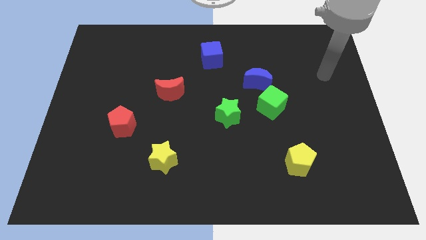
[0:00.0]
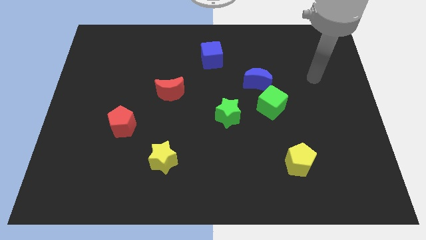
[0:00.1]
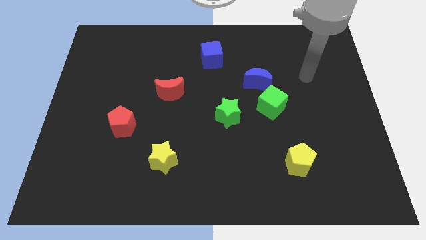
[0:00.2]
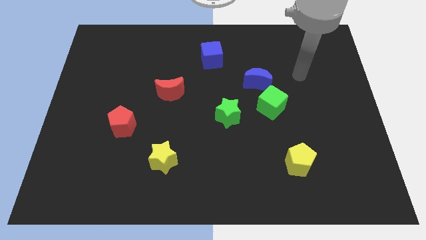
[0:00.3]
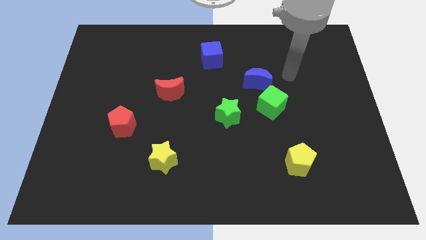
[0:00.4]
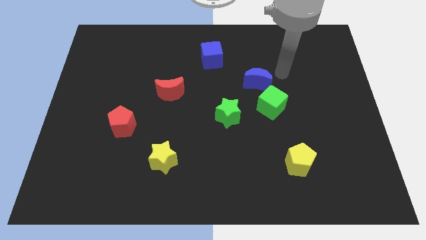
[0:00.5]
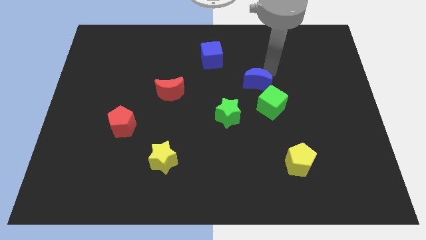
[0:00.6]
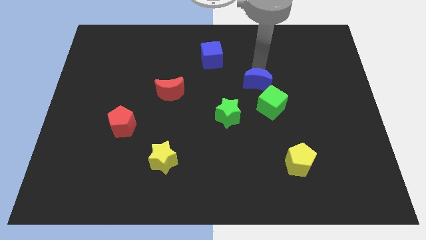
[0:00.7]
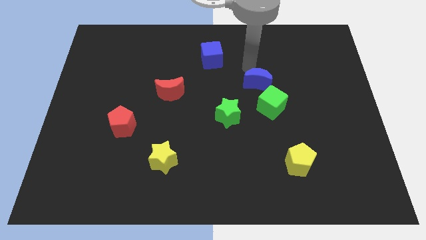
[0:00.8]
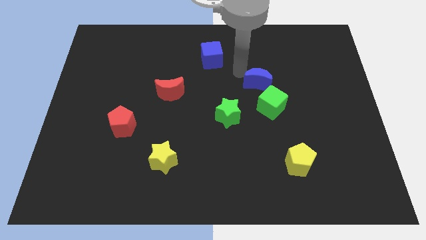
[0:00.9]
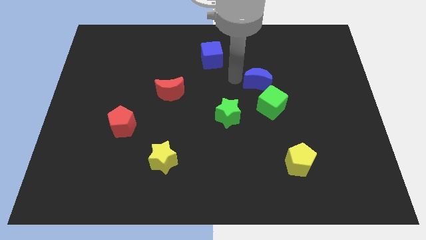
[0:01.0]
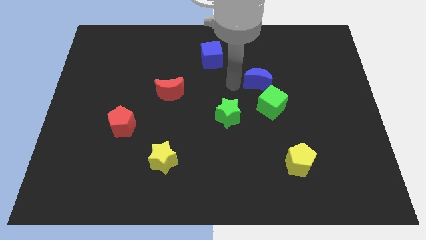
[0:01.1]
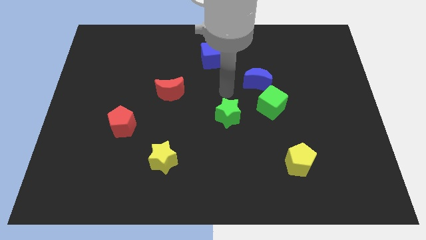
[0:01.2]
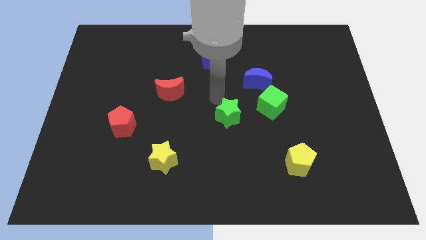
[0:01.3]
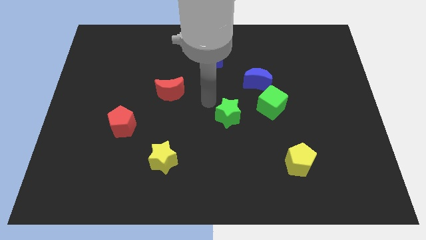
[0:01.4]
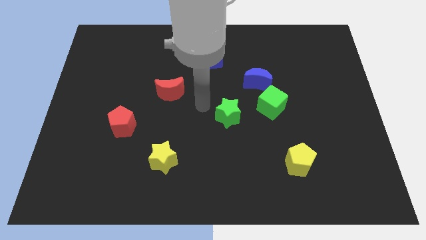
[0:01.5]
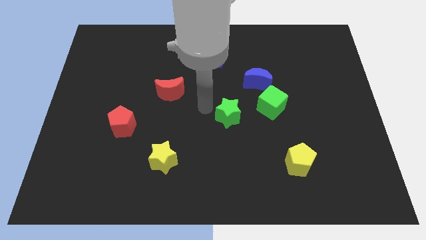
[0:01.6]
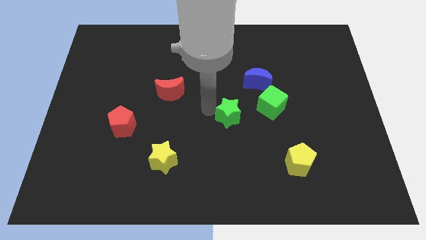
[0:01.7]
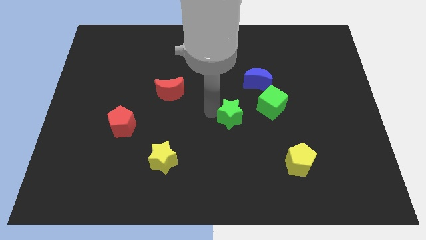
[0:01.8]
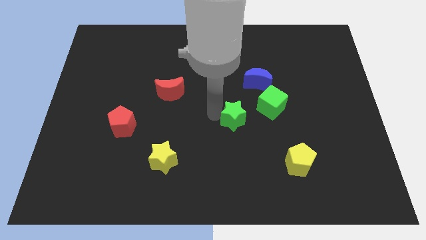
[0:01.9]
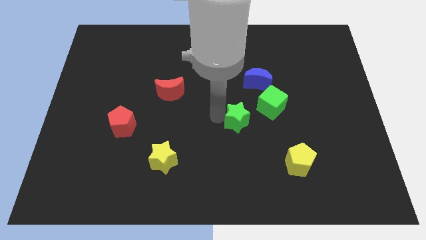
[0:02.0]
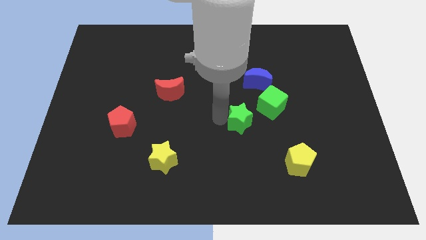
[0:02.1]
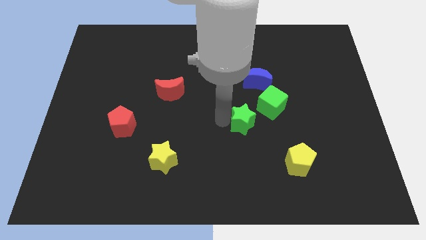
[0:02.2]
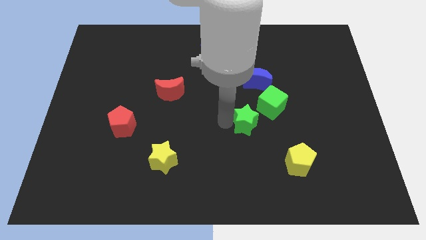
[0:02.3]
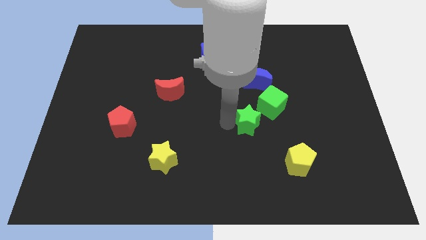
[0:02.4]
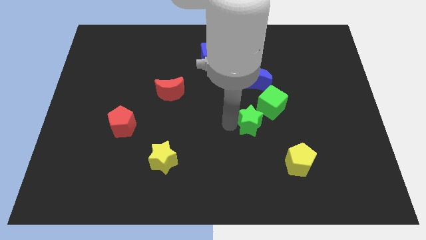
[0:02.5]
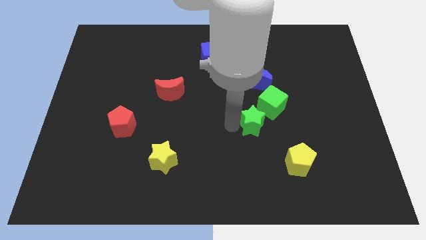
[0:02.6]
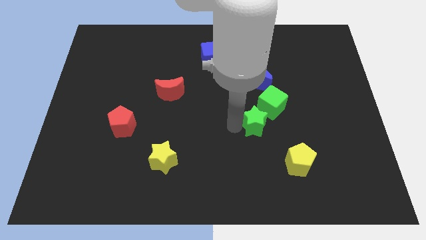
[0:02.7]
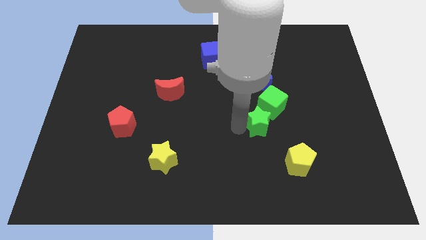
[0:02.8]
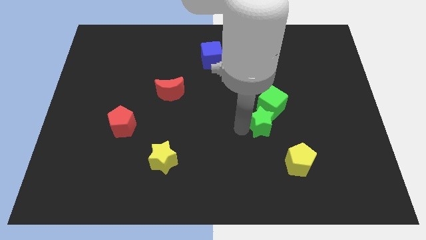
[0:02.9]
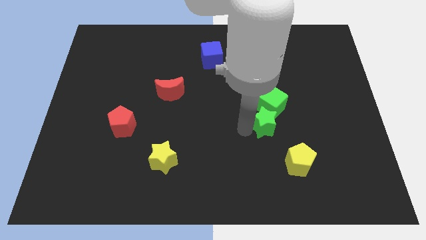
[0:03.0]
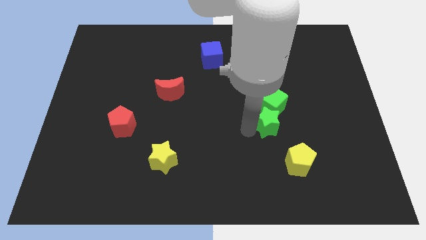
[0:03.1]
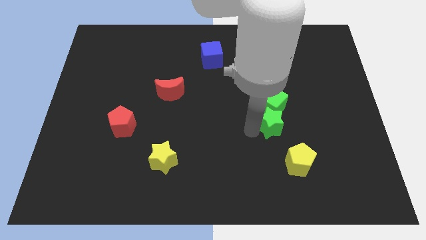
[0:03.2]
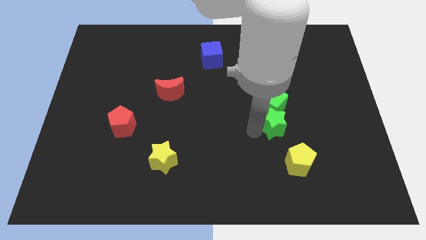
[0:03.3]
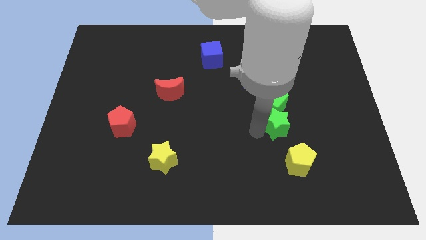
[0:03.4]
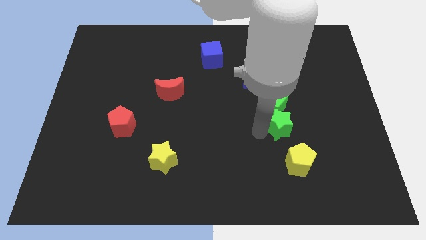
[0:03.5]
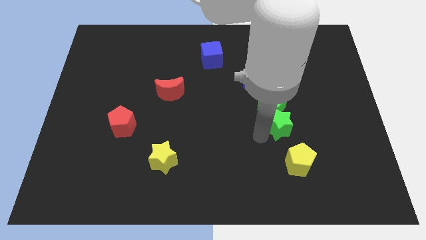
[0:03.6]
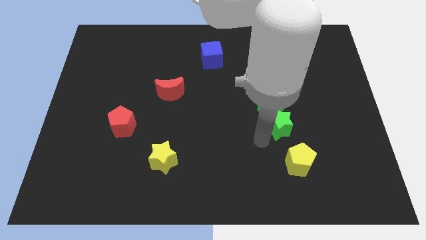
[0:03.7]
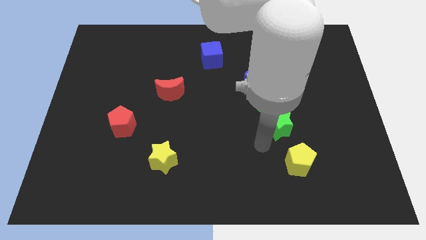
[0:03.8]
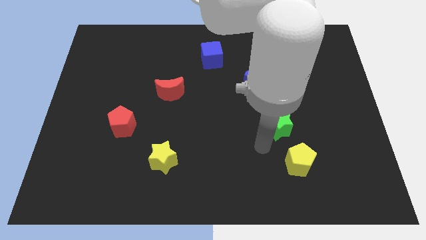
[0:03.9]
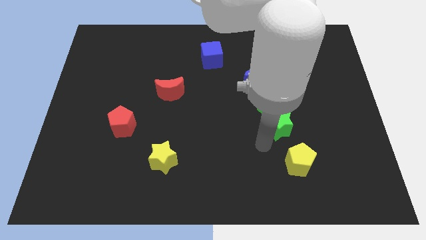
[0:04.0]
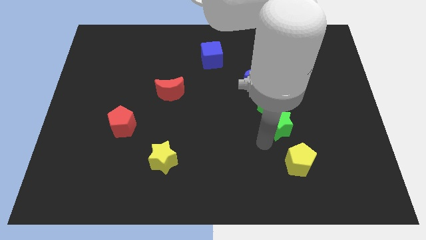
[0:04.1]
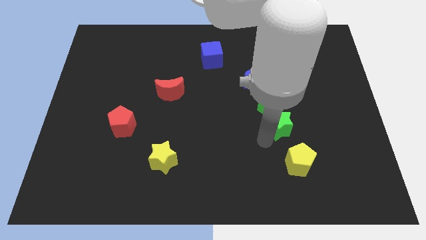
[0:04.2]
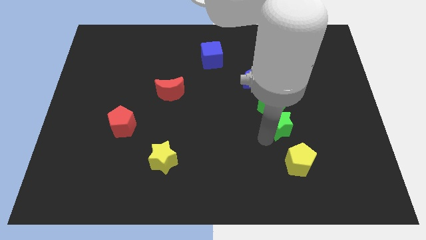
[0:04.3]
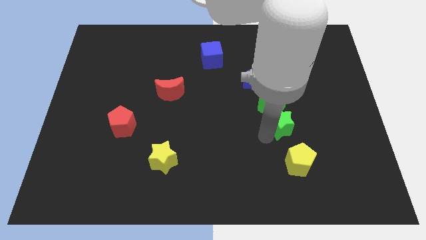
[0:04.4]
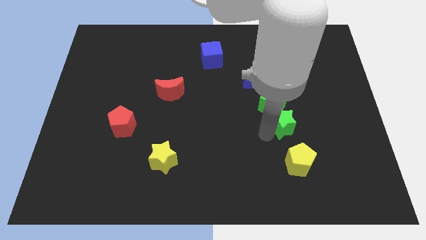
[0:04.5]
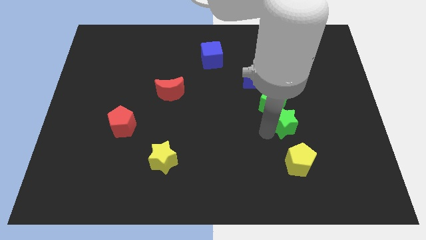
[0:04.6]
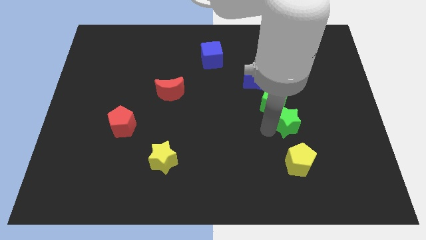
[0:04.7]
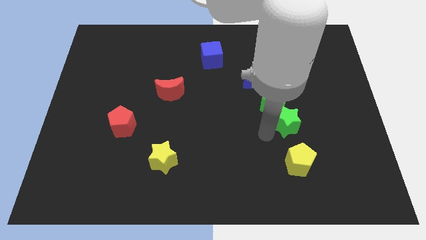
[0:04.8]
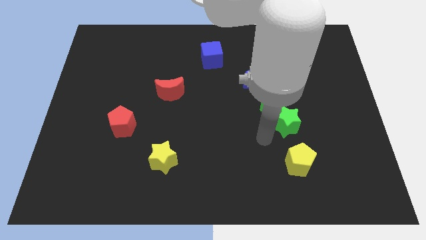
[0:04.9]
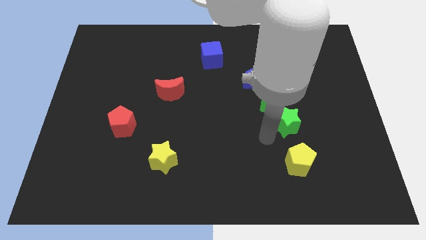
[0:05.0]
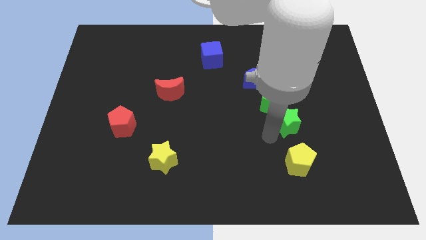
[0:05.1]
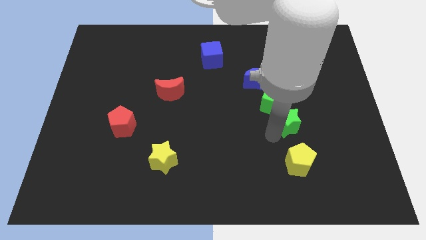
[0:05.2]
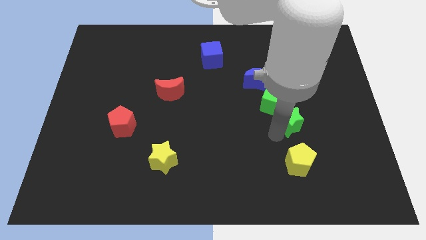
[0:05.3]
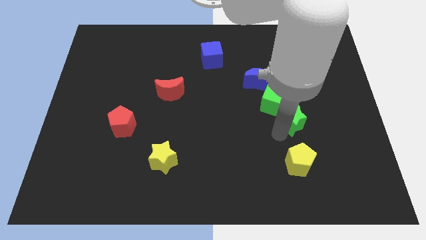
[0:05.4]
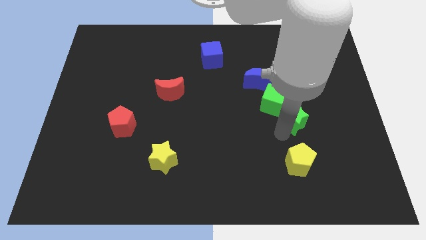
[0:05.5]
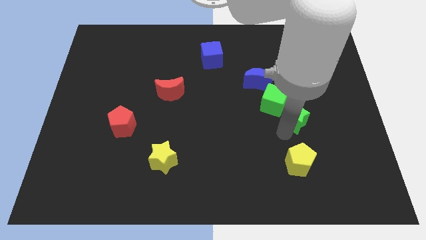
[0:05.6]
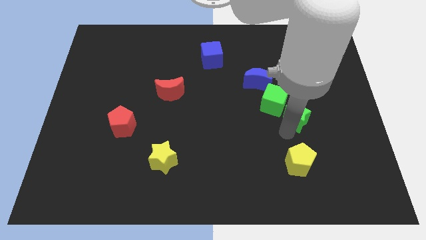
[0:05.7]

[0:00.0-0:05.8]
push the green star just right of the green cube

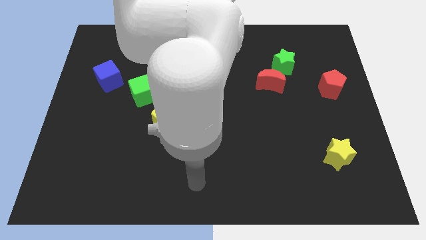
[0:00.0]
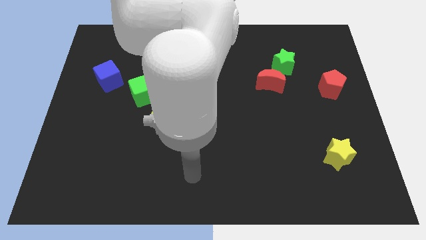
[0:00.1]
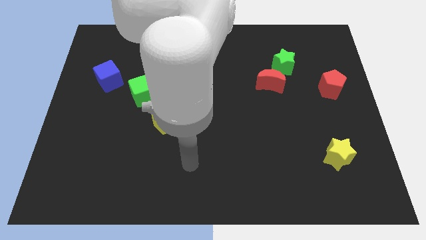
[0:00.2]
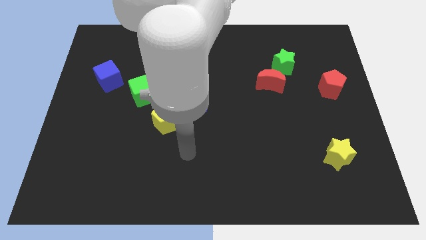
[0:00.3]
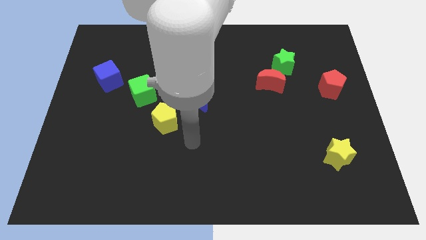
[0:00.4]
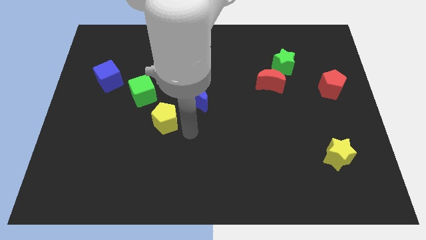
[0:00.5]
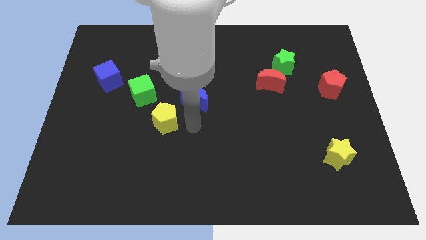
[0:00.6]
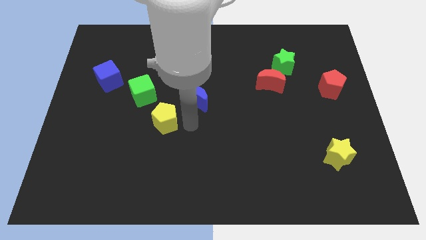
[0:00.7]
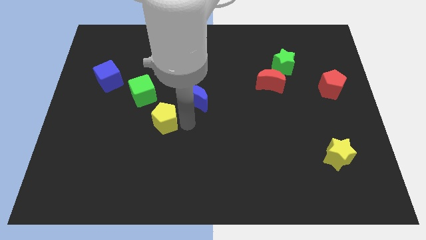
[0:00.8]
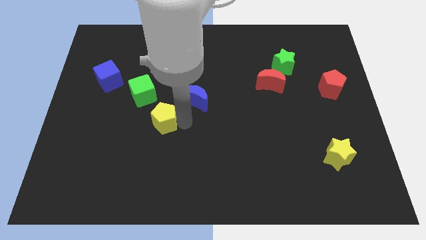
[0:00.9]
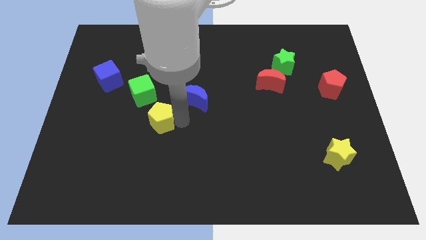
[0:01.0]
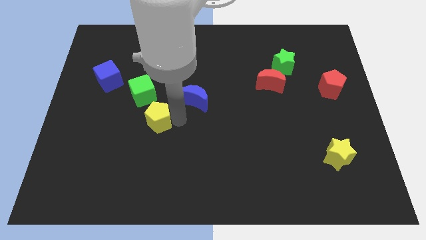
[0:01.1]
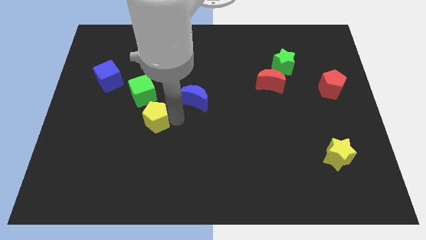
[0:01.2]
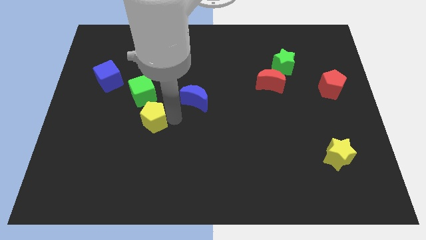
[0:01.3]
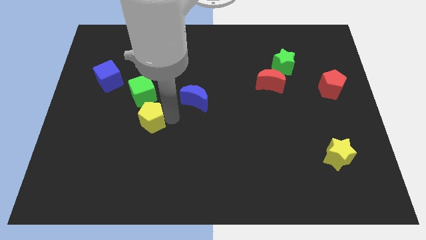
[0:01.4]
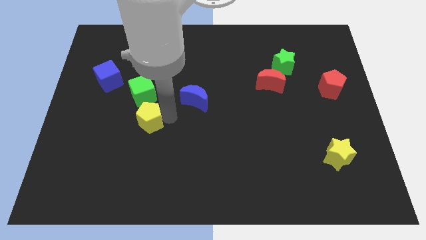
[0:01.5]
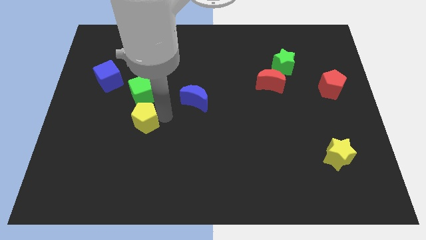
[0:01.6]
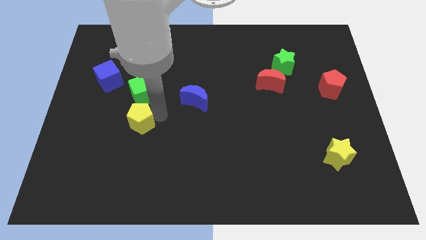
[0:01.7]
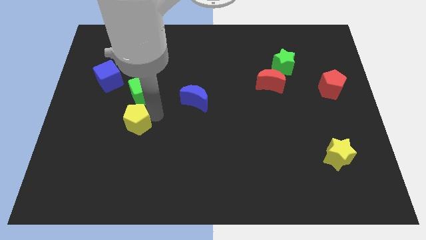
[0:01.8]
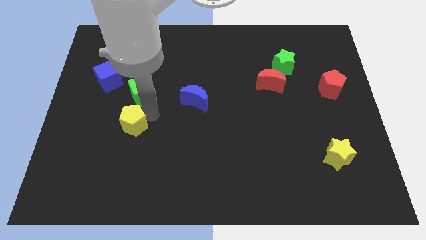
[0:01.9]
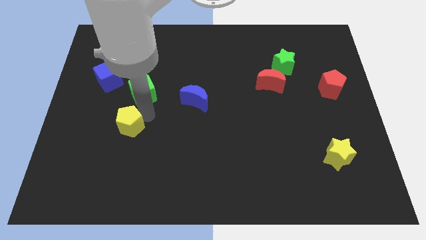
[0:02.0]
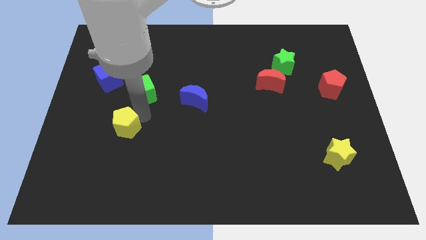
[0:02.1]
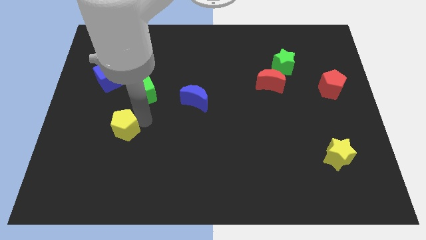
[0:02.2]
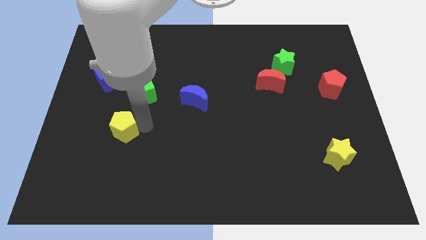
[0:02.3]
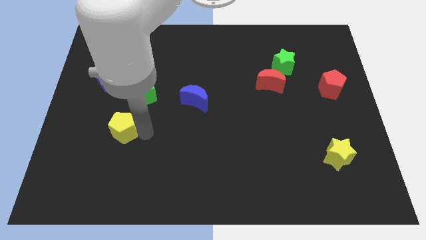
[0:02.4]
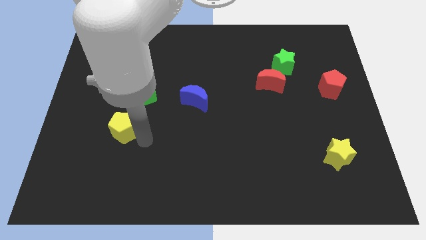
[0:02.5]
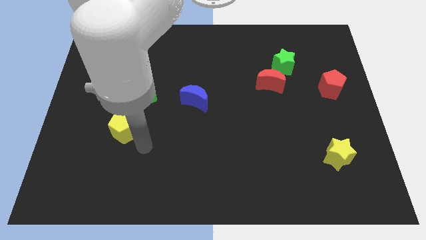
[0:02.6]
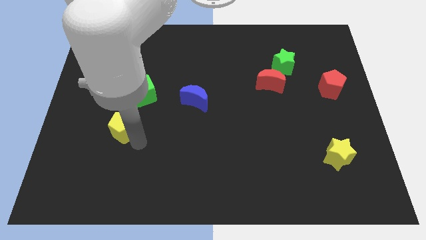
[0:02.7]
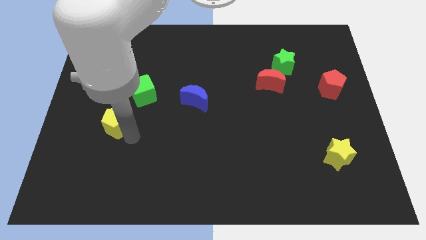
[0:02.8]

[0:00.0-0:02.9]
move the yellow pentagon to the bottom of the blue cube
